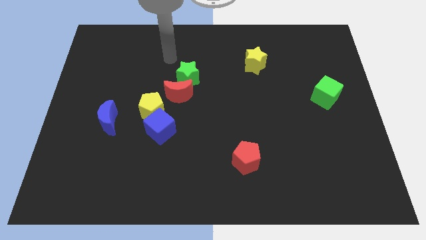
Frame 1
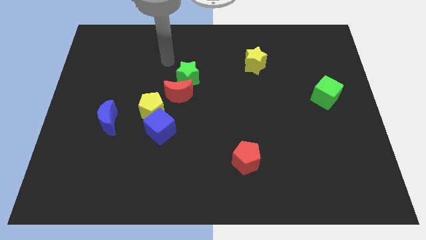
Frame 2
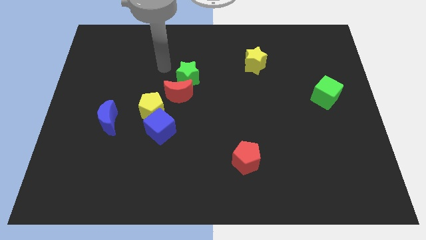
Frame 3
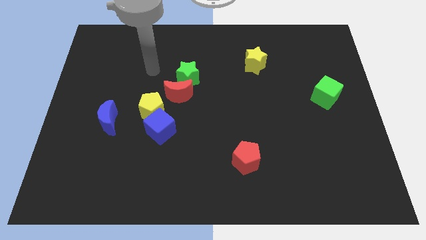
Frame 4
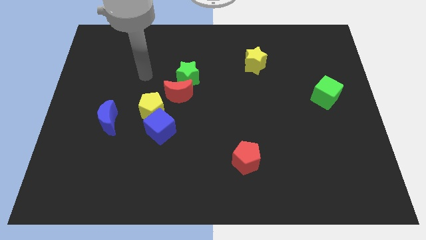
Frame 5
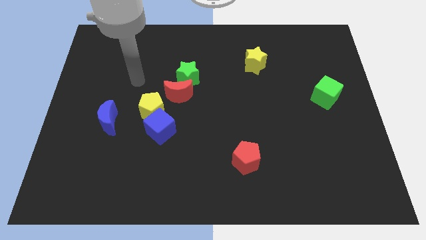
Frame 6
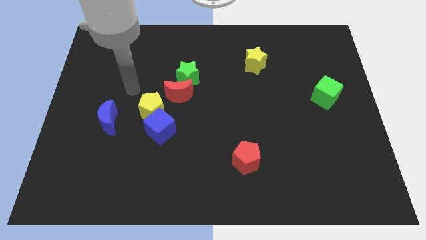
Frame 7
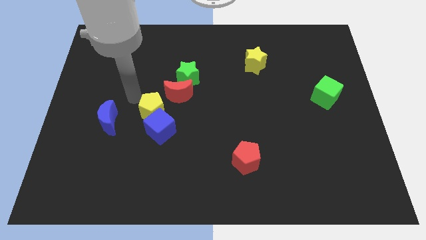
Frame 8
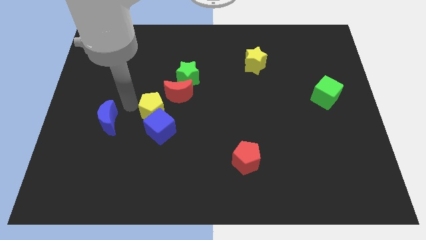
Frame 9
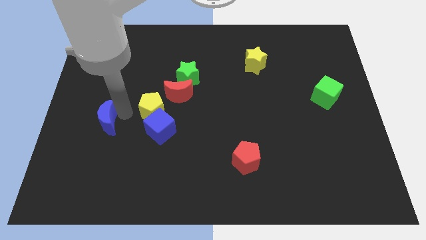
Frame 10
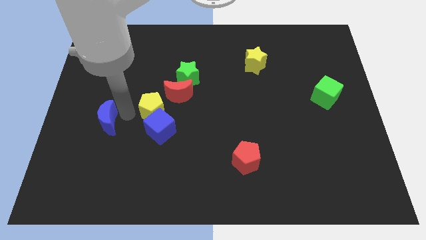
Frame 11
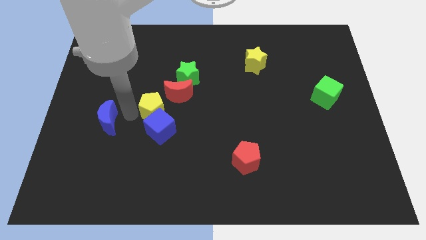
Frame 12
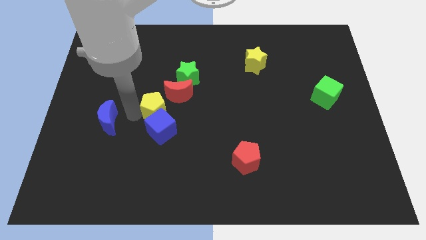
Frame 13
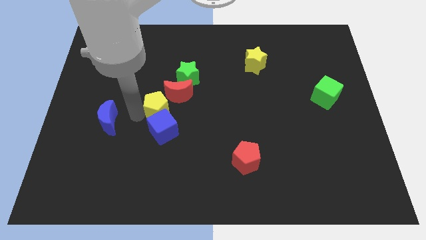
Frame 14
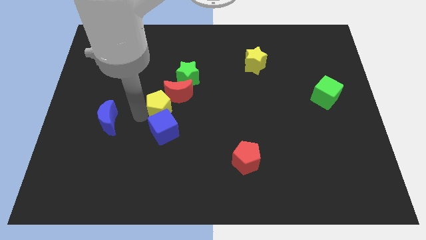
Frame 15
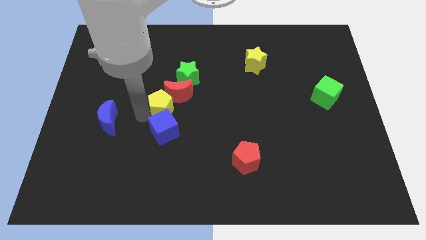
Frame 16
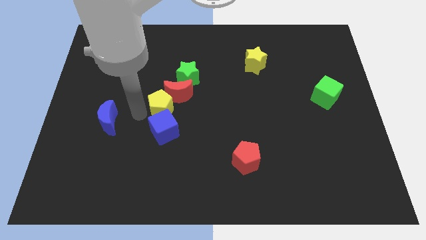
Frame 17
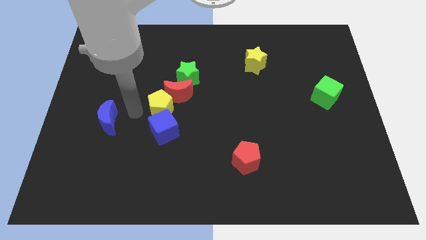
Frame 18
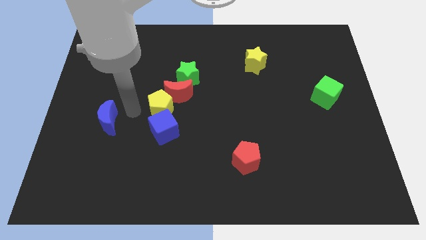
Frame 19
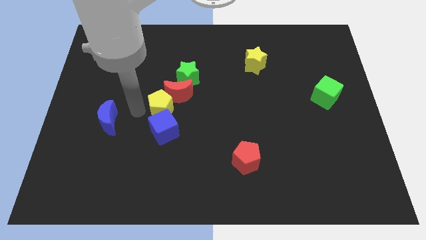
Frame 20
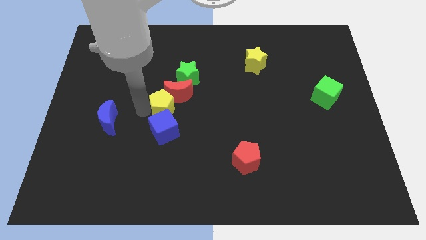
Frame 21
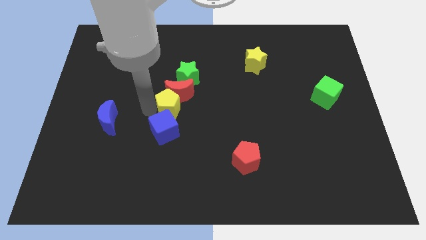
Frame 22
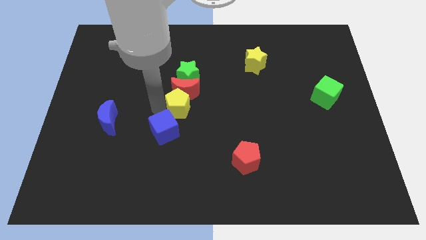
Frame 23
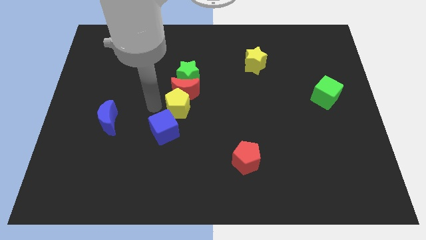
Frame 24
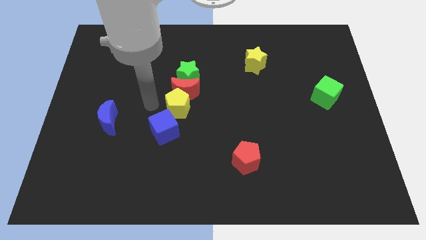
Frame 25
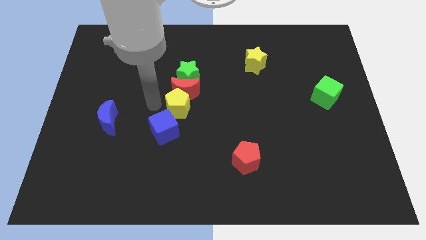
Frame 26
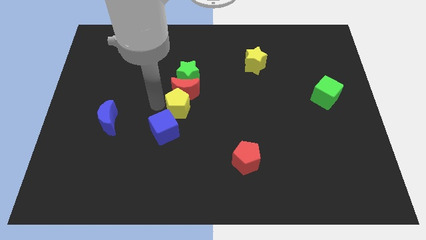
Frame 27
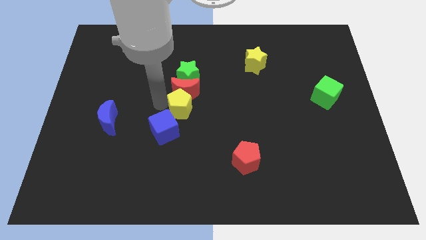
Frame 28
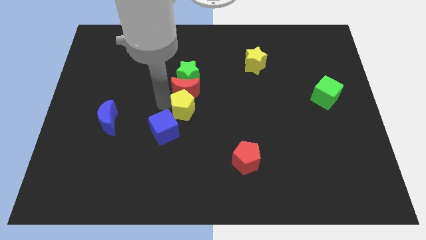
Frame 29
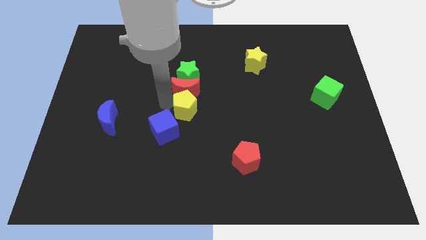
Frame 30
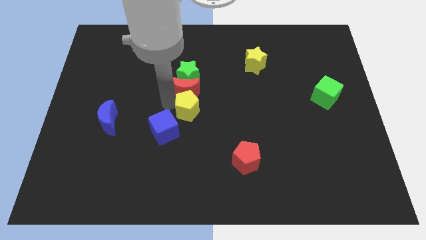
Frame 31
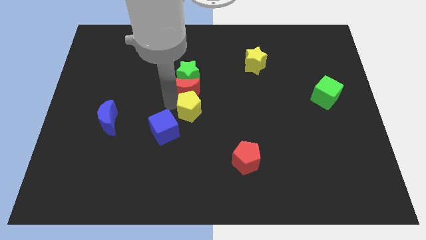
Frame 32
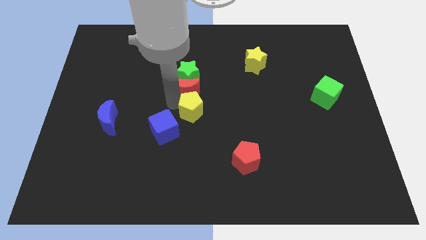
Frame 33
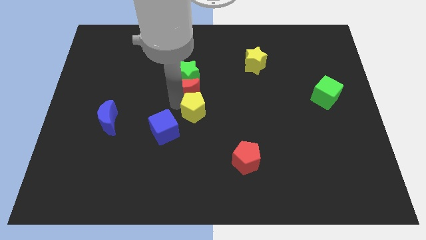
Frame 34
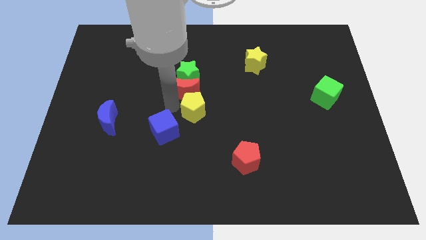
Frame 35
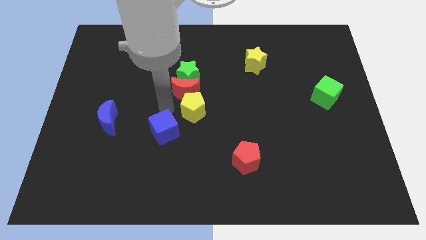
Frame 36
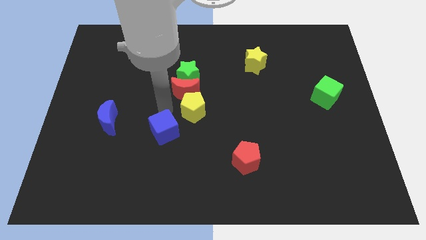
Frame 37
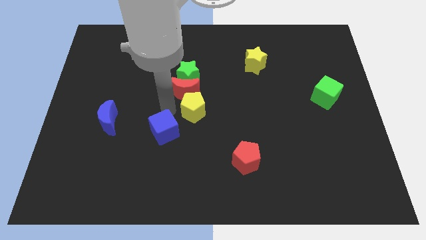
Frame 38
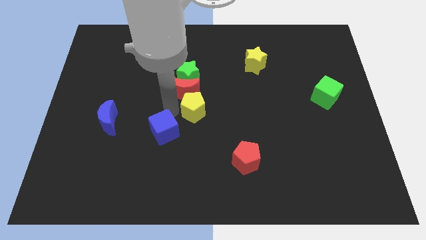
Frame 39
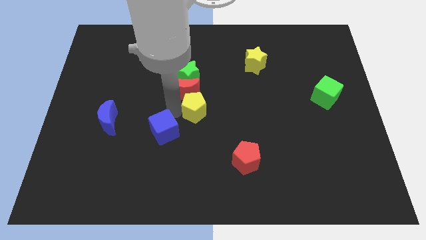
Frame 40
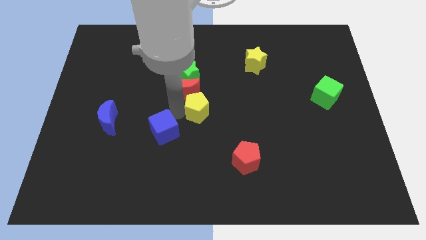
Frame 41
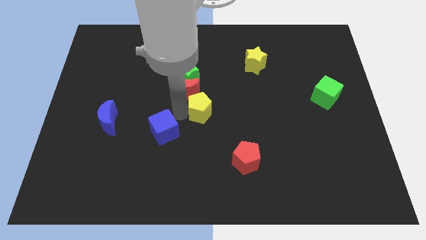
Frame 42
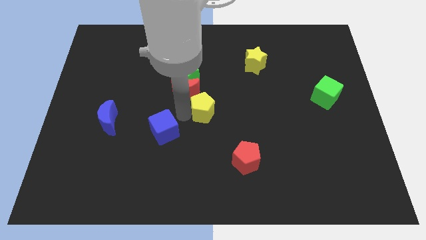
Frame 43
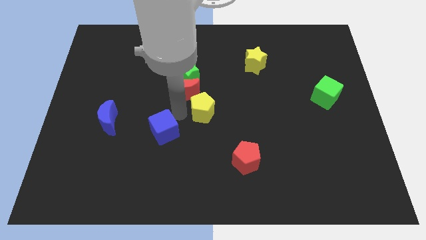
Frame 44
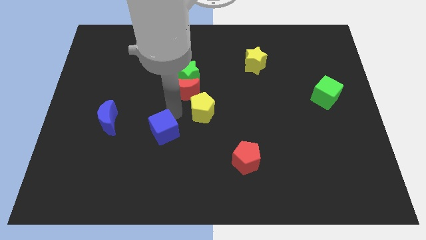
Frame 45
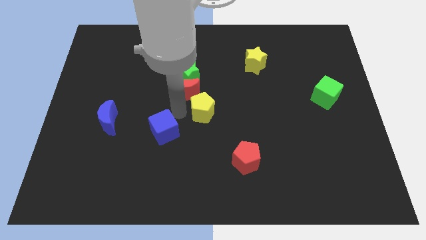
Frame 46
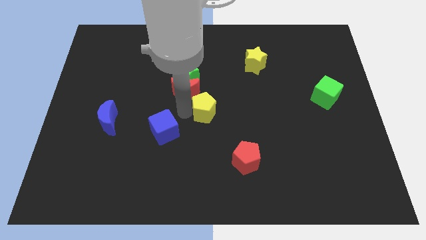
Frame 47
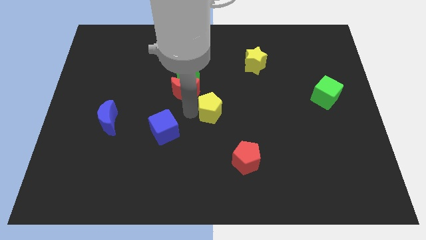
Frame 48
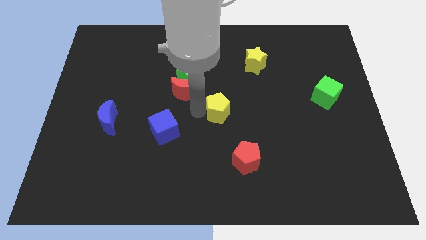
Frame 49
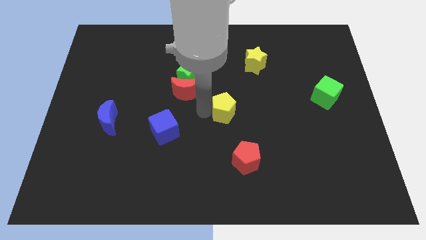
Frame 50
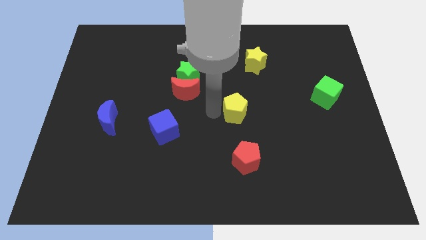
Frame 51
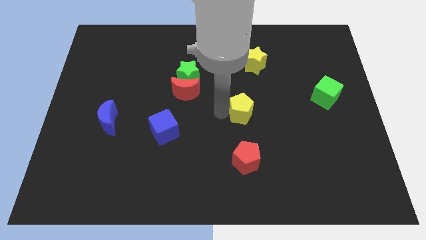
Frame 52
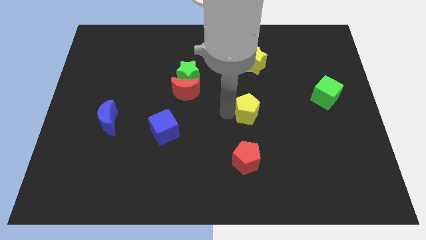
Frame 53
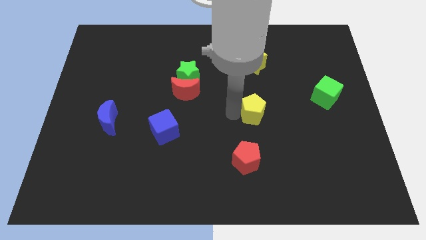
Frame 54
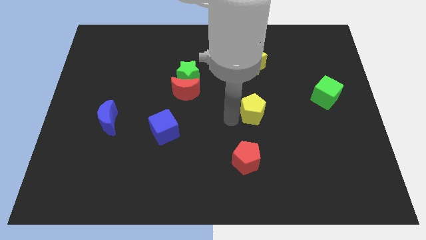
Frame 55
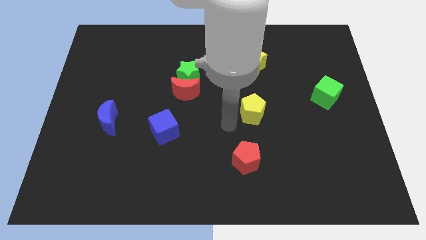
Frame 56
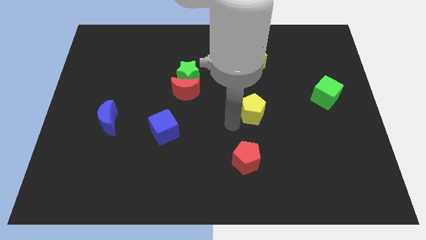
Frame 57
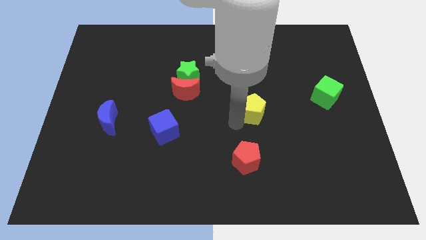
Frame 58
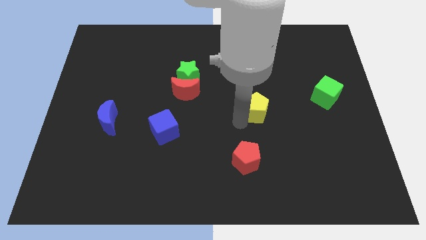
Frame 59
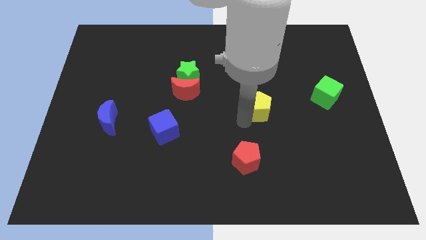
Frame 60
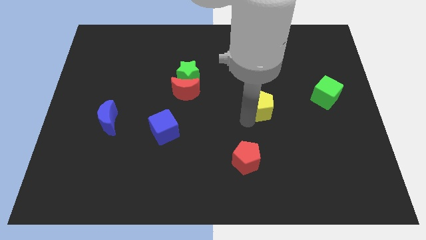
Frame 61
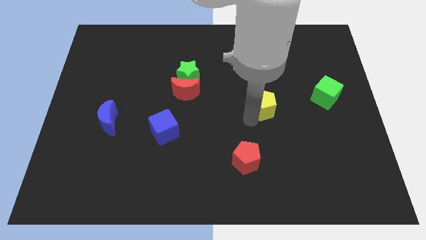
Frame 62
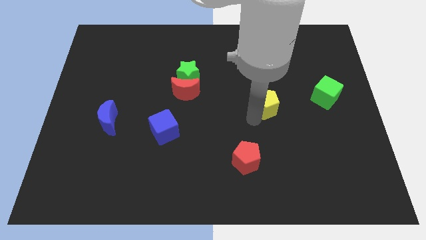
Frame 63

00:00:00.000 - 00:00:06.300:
move the yellow pentagon to the left side of the green cube

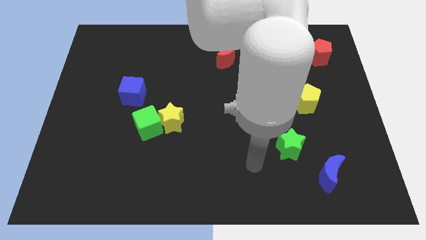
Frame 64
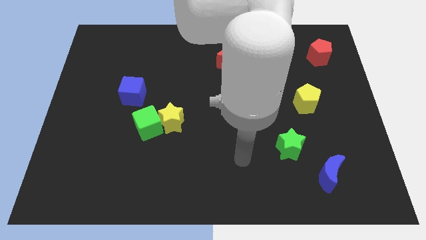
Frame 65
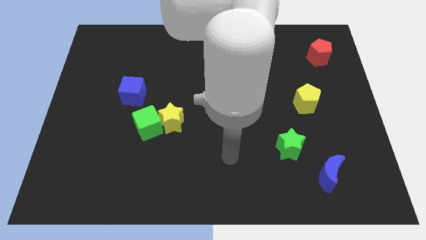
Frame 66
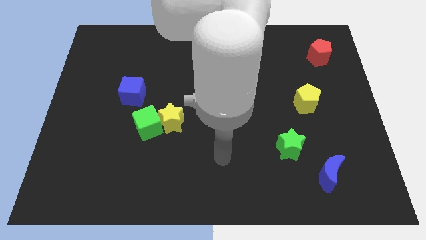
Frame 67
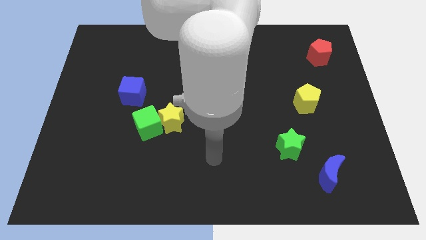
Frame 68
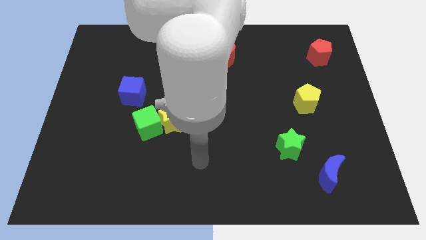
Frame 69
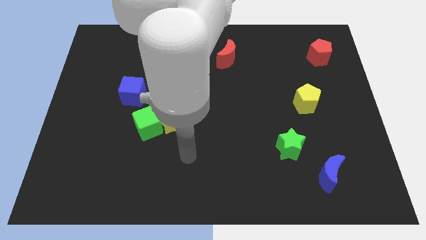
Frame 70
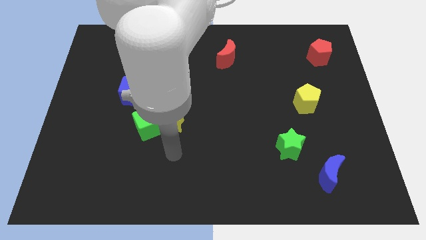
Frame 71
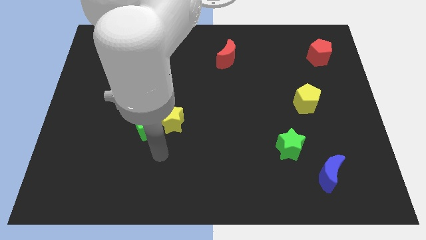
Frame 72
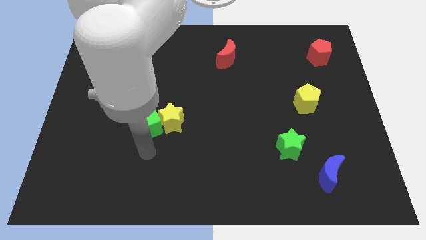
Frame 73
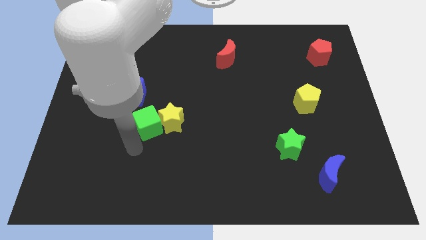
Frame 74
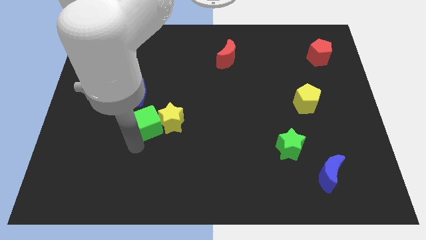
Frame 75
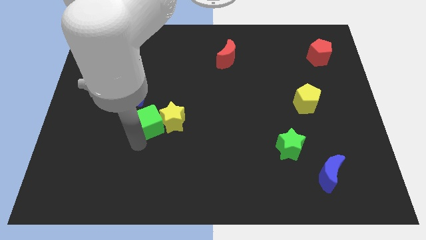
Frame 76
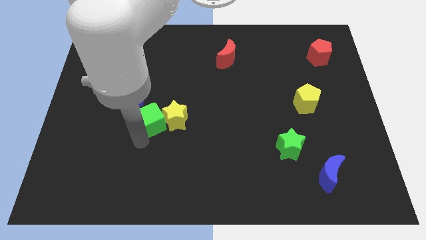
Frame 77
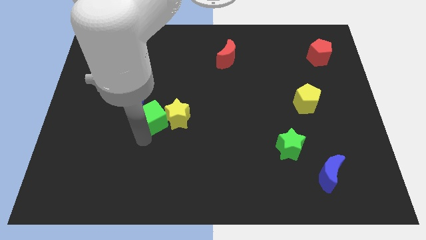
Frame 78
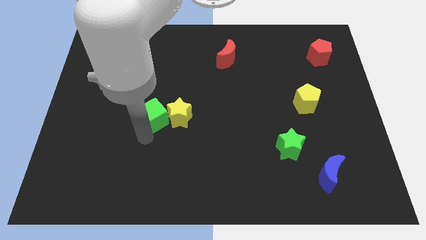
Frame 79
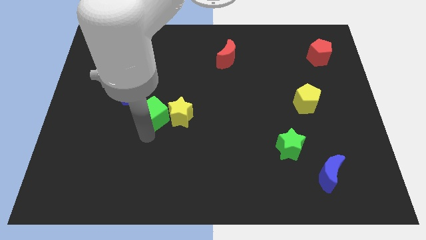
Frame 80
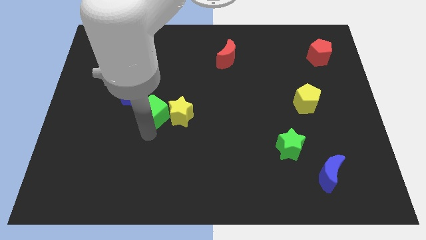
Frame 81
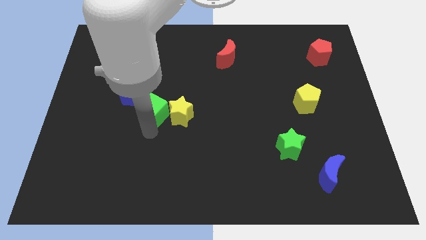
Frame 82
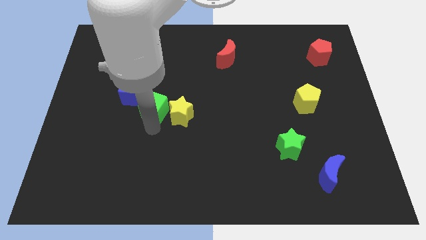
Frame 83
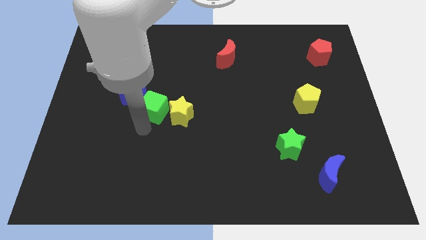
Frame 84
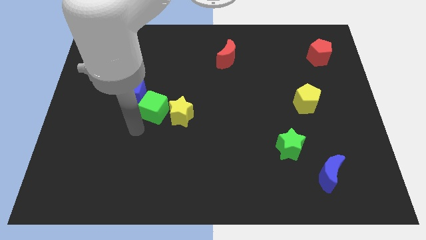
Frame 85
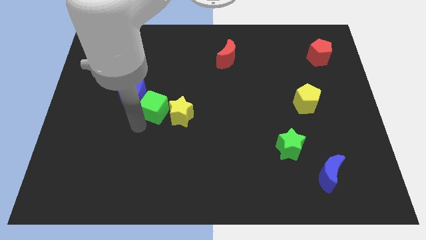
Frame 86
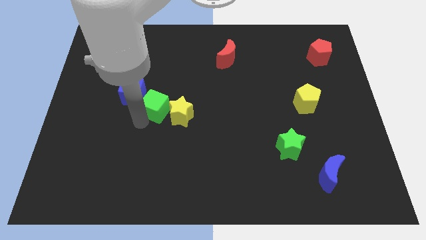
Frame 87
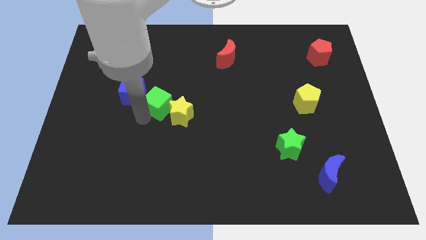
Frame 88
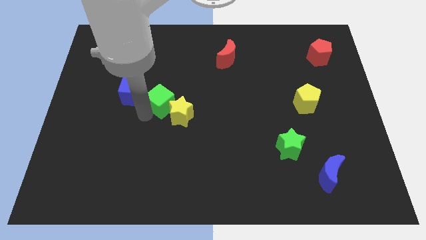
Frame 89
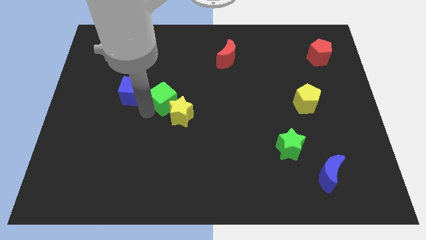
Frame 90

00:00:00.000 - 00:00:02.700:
slide the green cube above the yellow star
